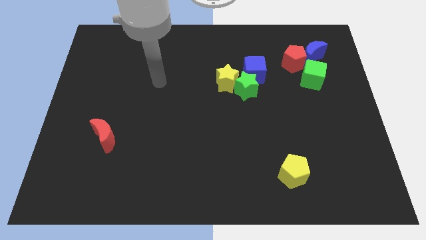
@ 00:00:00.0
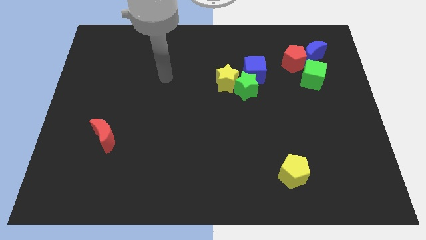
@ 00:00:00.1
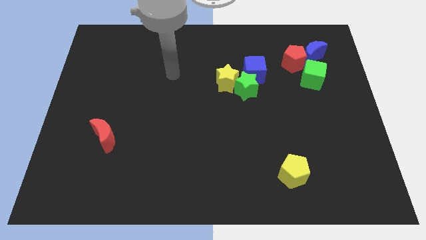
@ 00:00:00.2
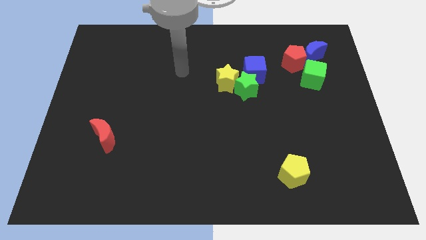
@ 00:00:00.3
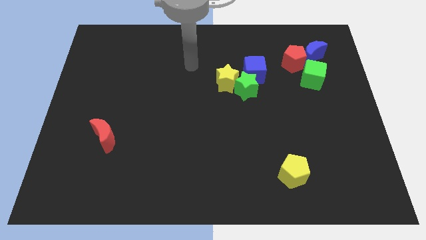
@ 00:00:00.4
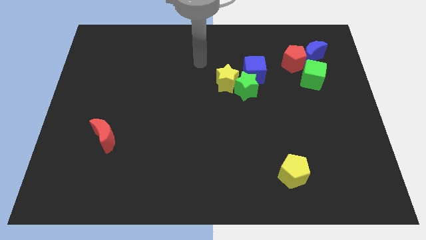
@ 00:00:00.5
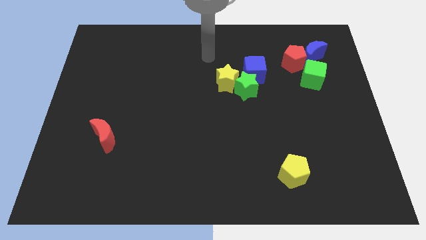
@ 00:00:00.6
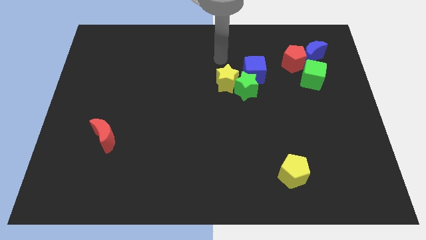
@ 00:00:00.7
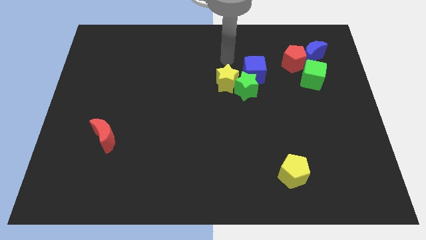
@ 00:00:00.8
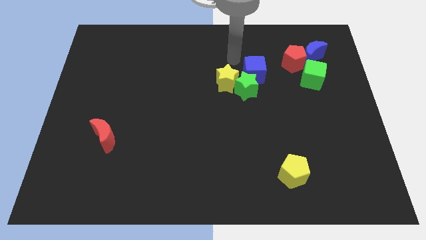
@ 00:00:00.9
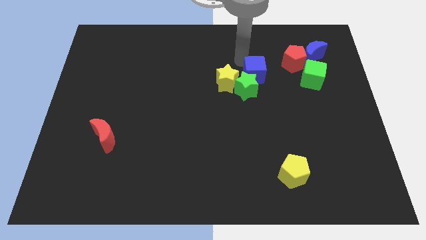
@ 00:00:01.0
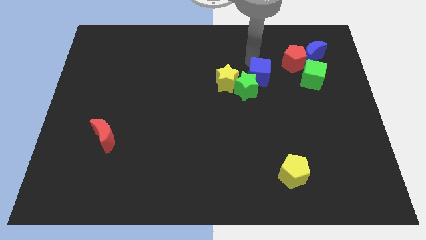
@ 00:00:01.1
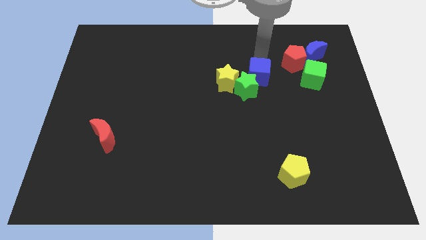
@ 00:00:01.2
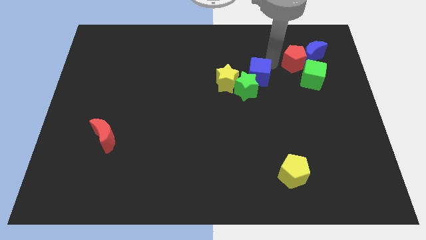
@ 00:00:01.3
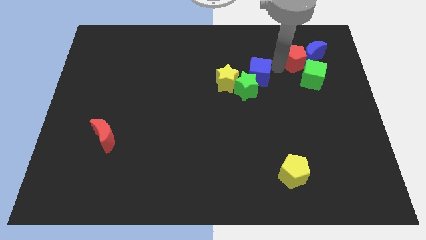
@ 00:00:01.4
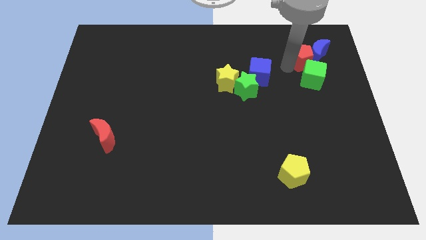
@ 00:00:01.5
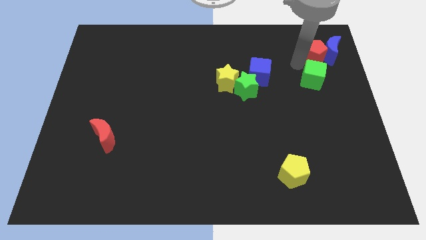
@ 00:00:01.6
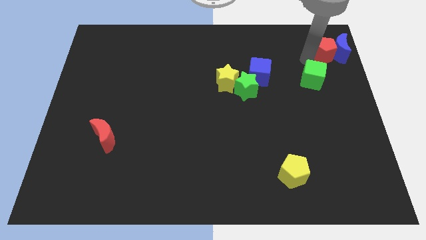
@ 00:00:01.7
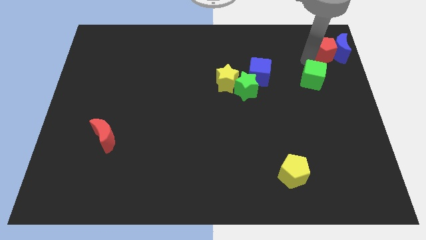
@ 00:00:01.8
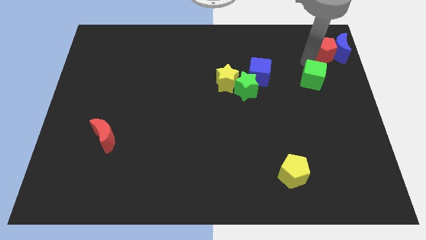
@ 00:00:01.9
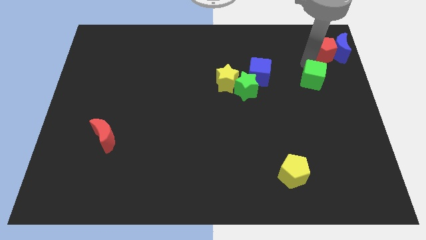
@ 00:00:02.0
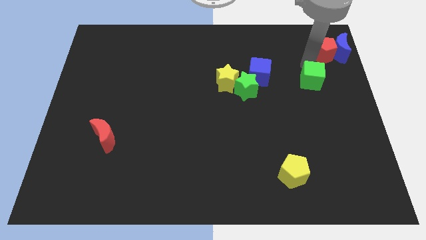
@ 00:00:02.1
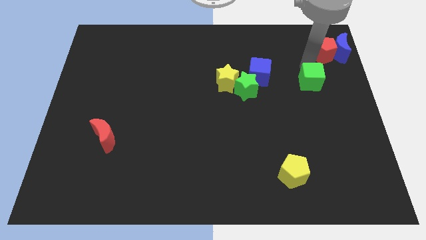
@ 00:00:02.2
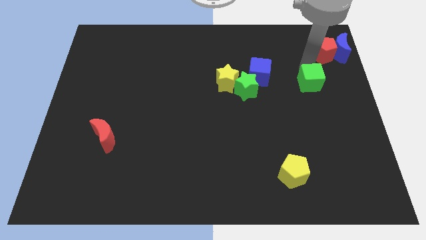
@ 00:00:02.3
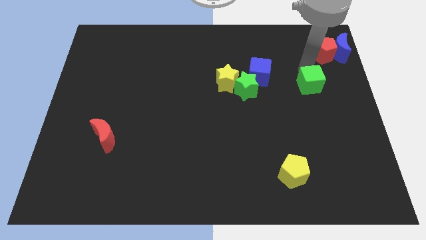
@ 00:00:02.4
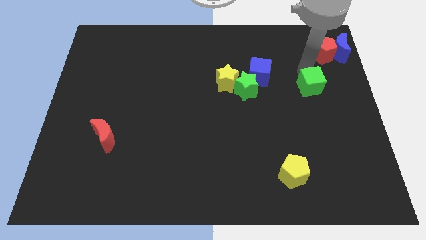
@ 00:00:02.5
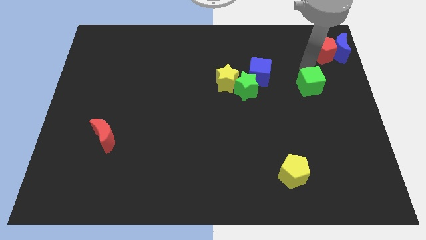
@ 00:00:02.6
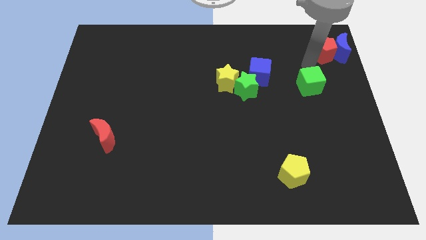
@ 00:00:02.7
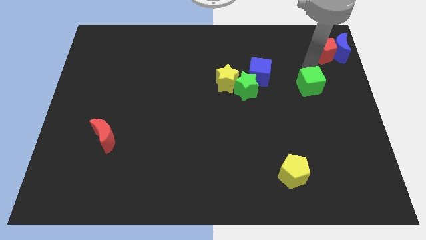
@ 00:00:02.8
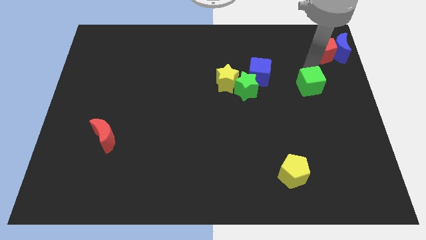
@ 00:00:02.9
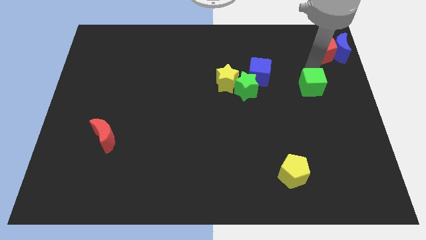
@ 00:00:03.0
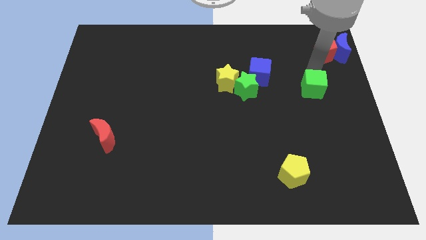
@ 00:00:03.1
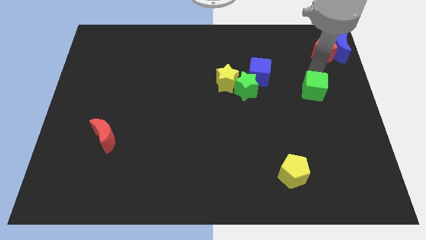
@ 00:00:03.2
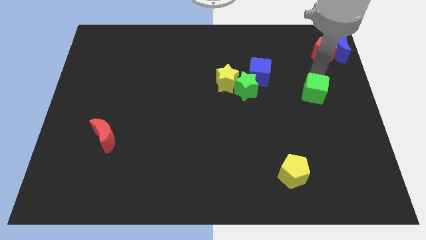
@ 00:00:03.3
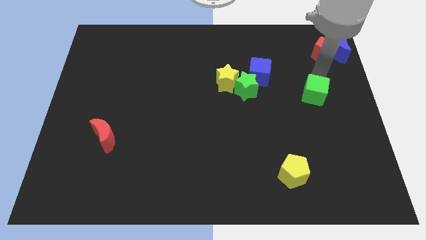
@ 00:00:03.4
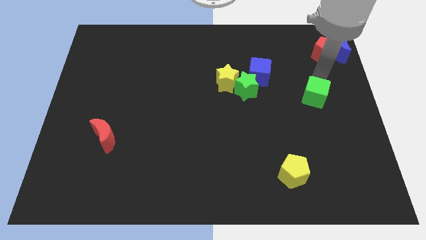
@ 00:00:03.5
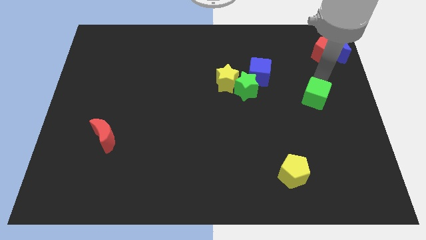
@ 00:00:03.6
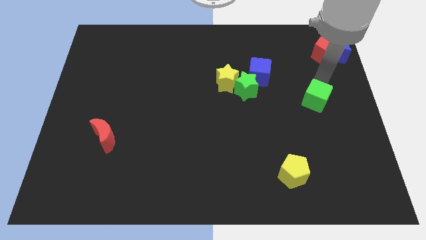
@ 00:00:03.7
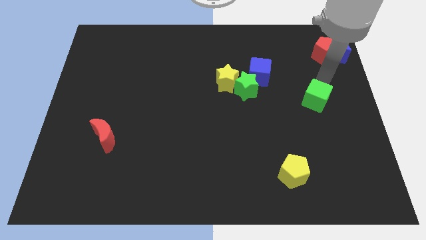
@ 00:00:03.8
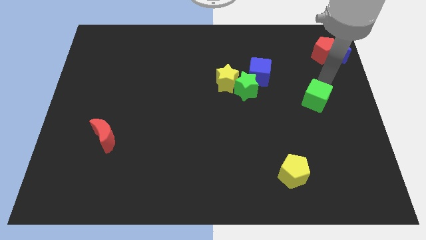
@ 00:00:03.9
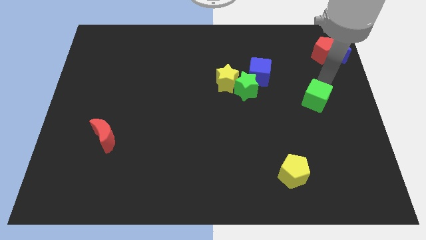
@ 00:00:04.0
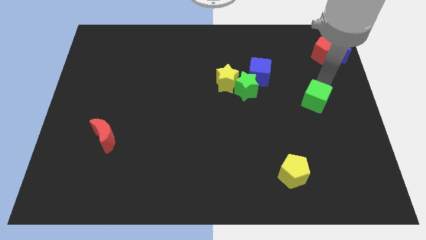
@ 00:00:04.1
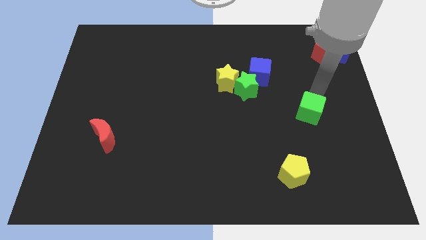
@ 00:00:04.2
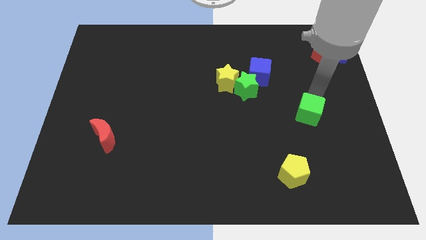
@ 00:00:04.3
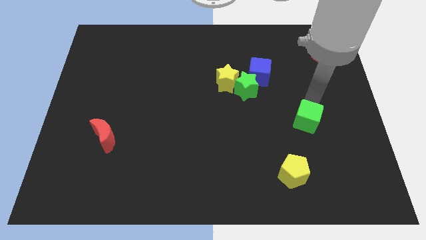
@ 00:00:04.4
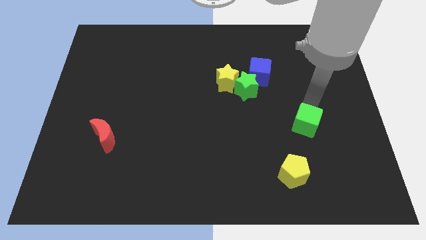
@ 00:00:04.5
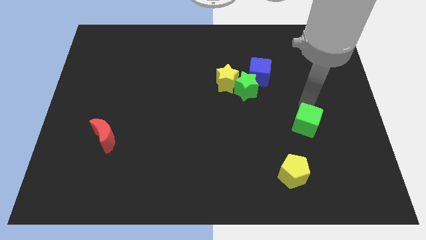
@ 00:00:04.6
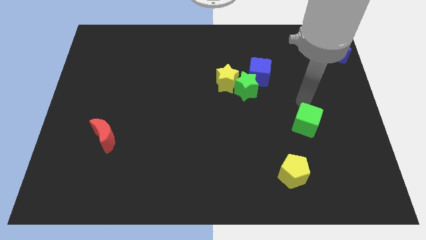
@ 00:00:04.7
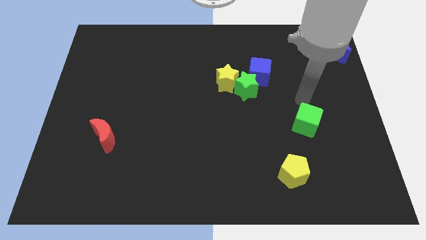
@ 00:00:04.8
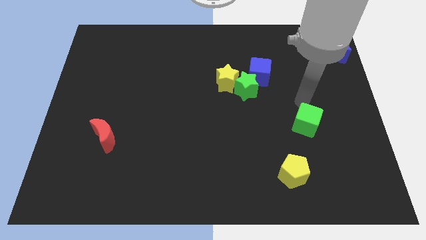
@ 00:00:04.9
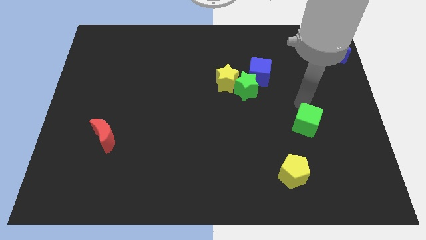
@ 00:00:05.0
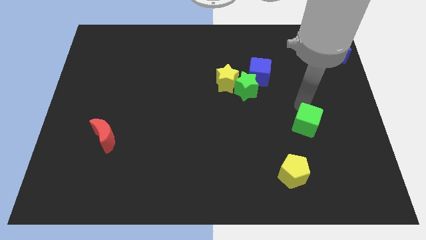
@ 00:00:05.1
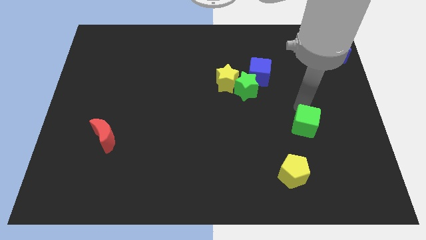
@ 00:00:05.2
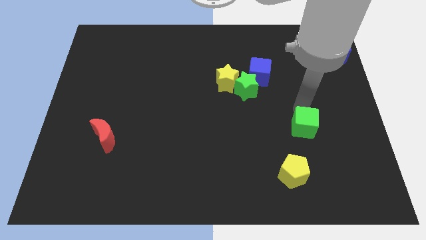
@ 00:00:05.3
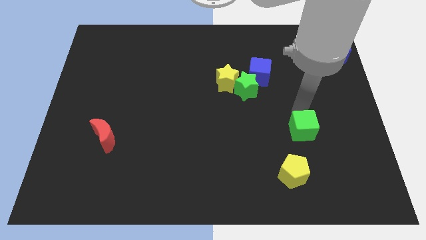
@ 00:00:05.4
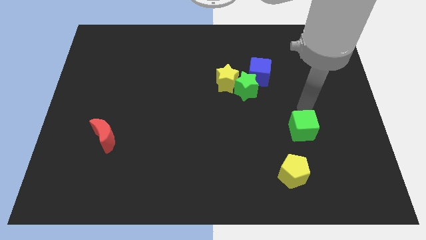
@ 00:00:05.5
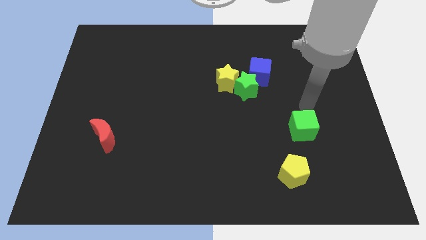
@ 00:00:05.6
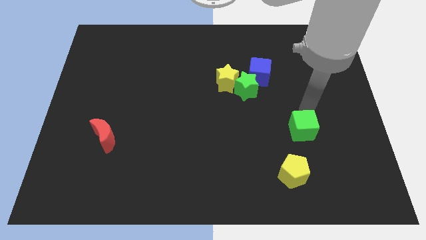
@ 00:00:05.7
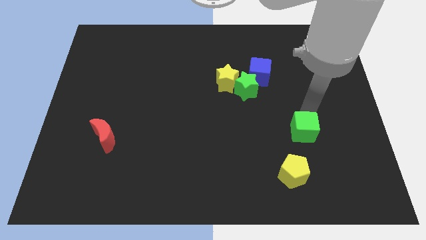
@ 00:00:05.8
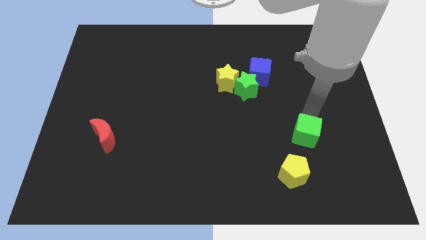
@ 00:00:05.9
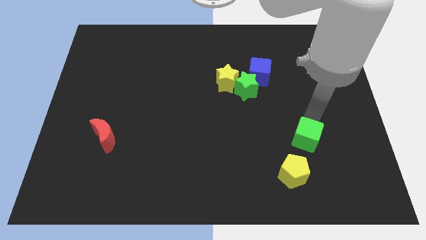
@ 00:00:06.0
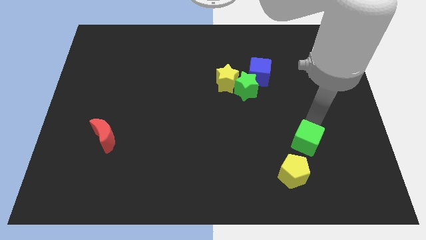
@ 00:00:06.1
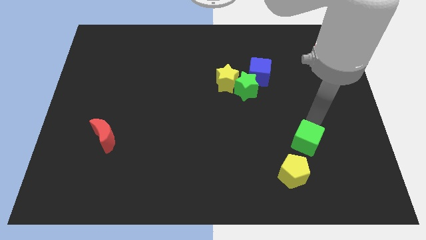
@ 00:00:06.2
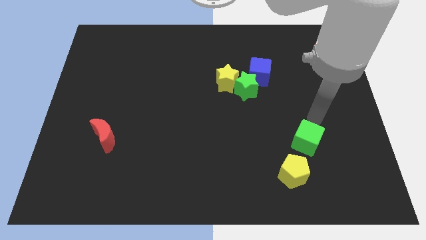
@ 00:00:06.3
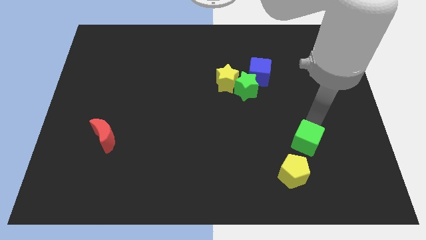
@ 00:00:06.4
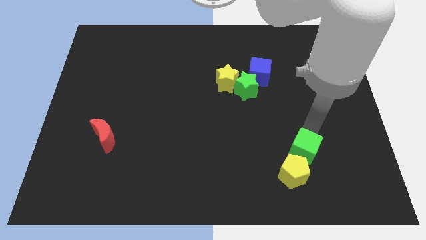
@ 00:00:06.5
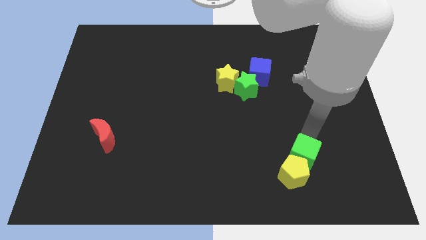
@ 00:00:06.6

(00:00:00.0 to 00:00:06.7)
push the green cube next to the yellow pentagon

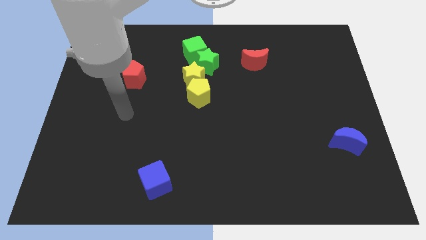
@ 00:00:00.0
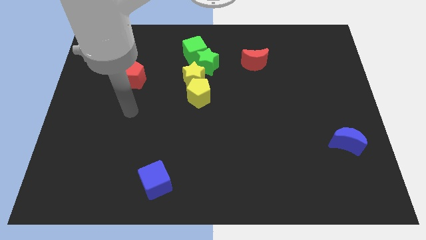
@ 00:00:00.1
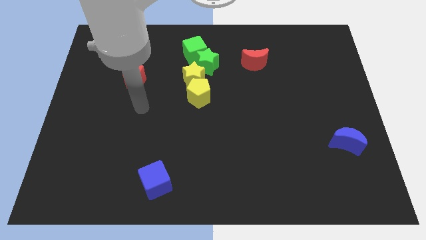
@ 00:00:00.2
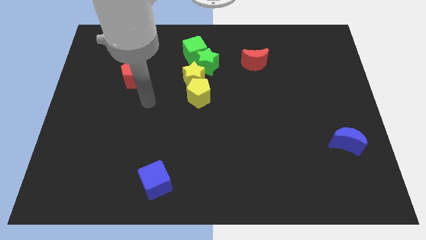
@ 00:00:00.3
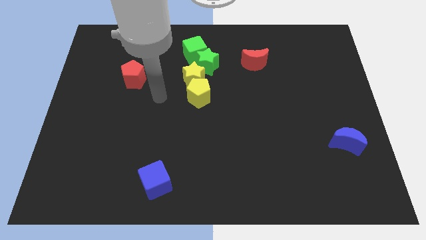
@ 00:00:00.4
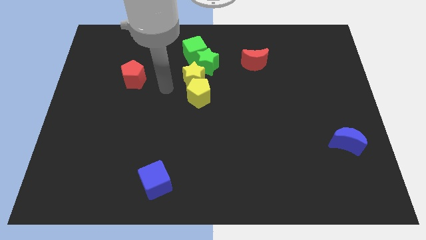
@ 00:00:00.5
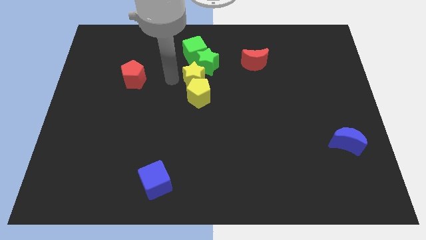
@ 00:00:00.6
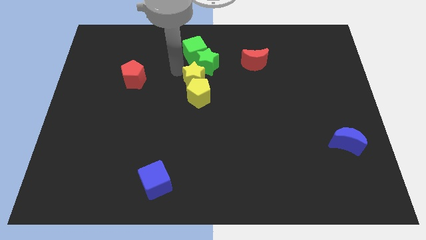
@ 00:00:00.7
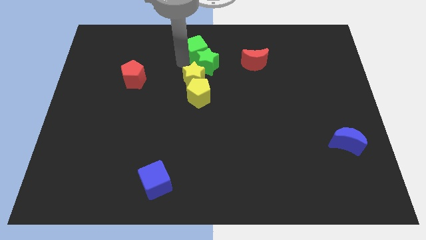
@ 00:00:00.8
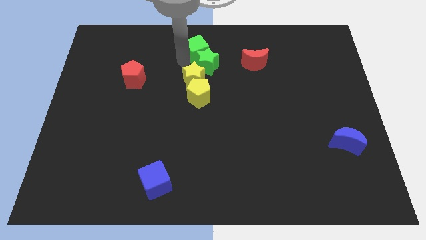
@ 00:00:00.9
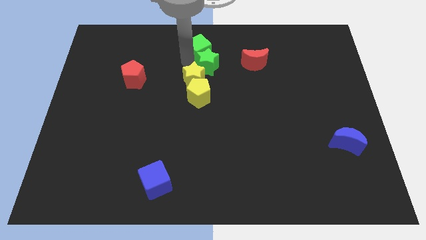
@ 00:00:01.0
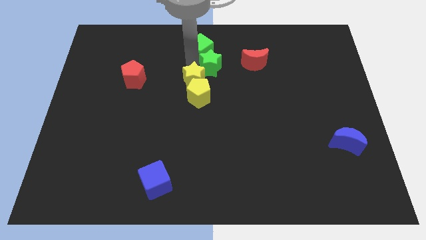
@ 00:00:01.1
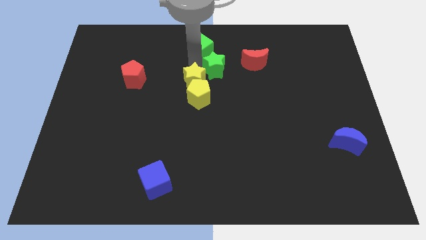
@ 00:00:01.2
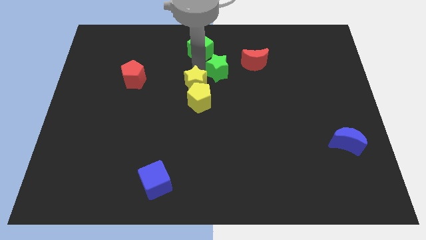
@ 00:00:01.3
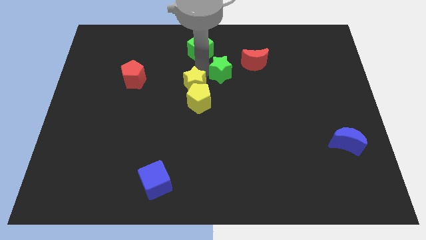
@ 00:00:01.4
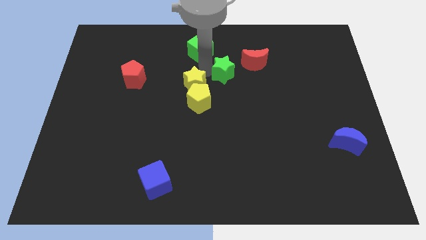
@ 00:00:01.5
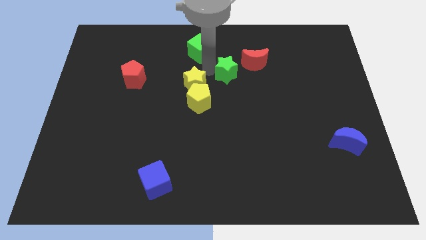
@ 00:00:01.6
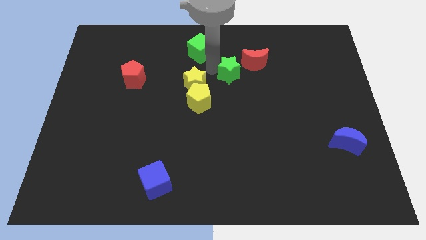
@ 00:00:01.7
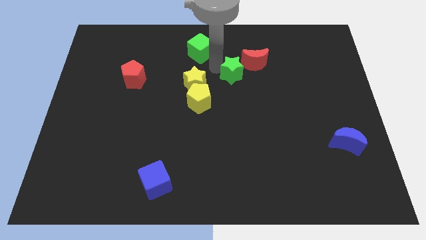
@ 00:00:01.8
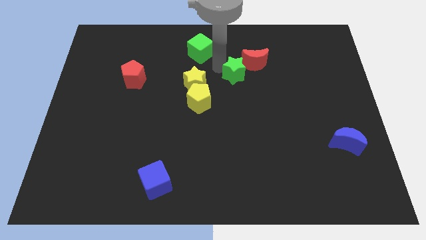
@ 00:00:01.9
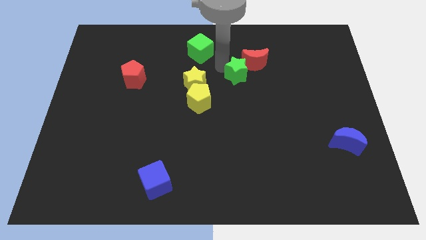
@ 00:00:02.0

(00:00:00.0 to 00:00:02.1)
slide the green star to the red moon
